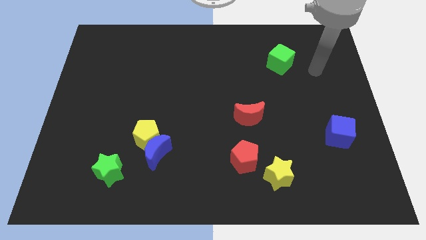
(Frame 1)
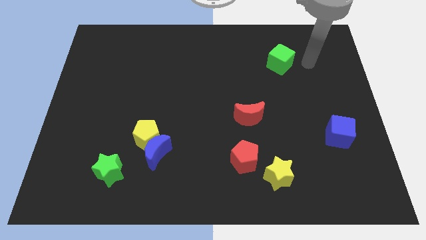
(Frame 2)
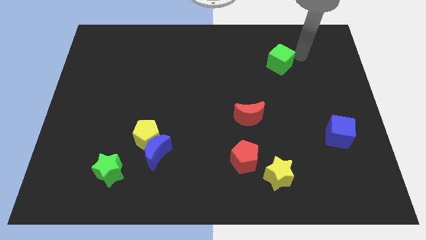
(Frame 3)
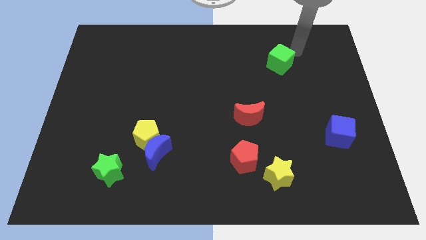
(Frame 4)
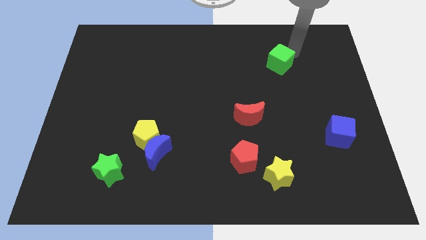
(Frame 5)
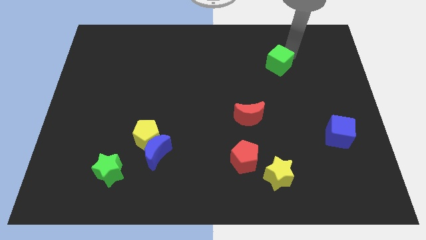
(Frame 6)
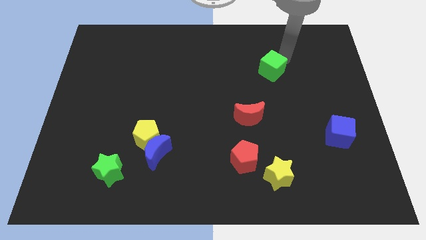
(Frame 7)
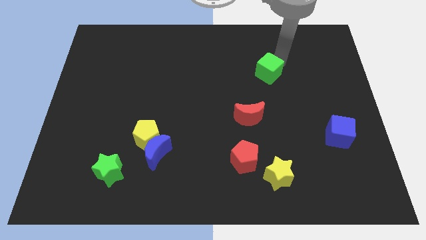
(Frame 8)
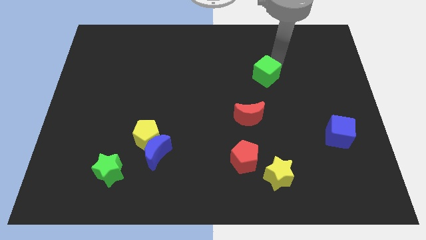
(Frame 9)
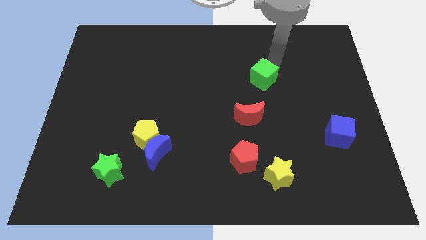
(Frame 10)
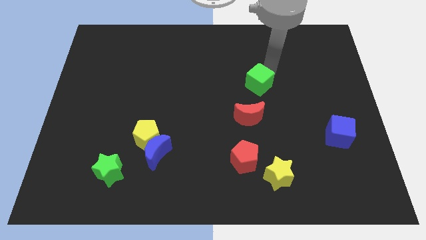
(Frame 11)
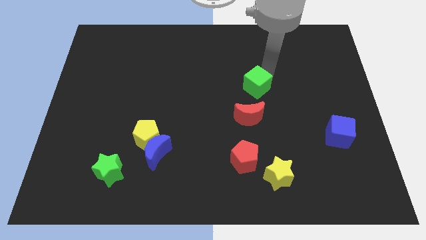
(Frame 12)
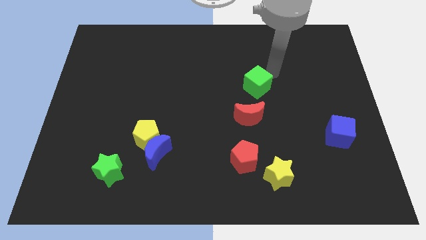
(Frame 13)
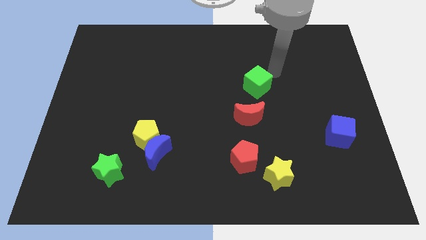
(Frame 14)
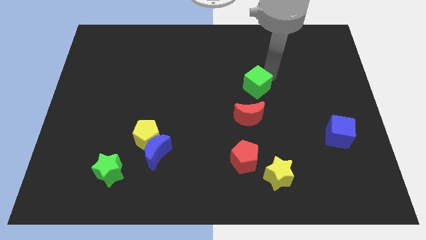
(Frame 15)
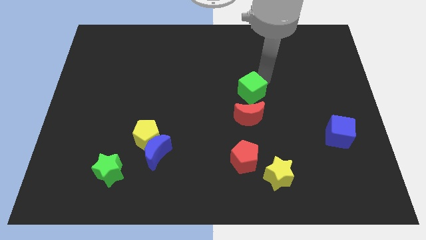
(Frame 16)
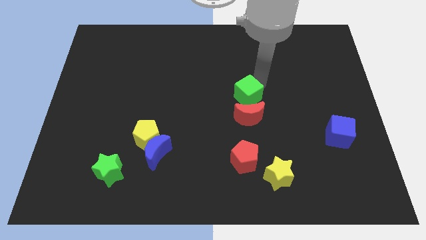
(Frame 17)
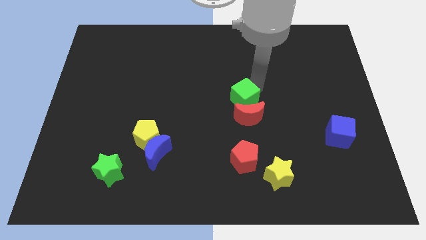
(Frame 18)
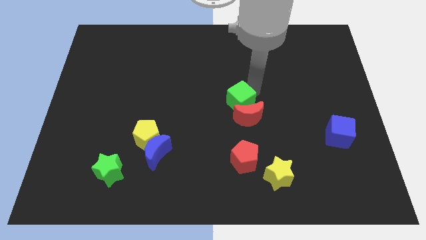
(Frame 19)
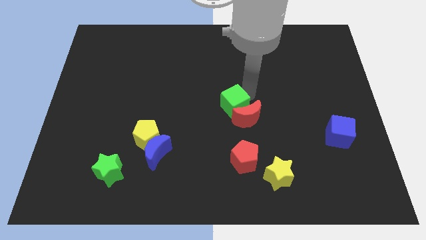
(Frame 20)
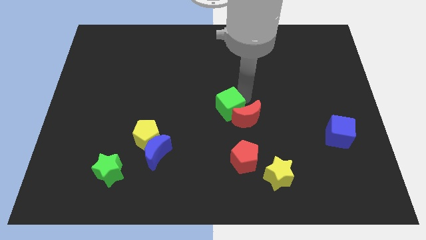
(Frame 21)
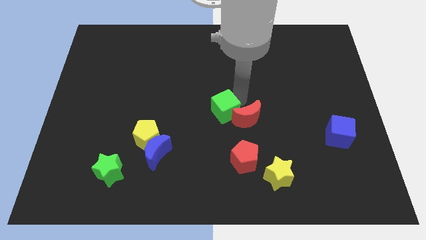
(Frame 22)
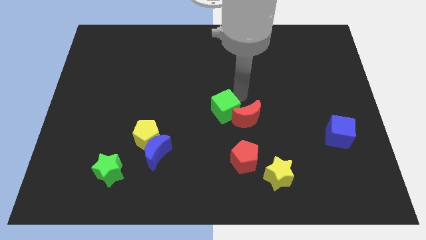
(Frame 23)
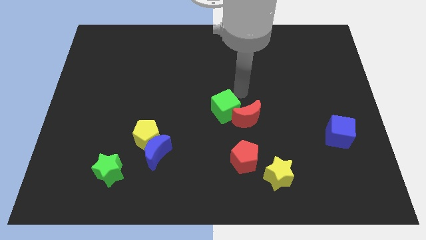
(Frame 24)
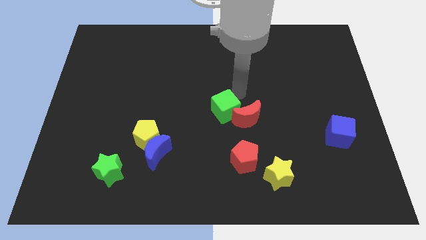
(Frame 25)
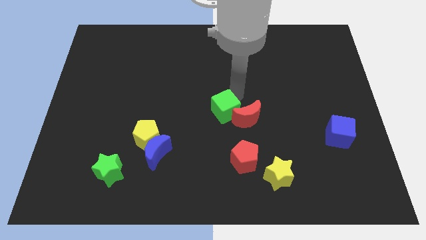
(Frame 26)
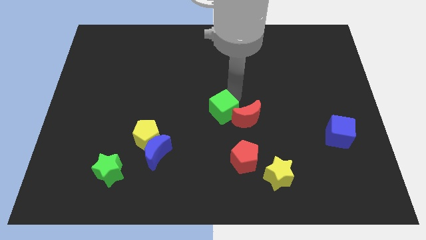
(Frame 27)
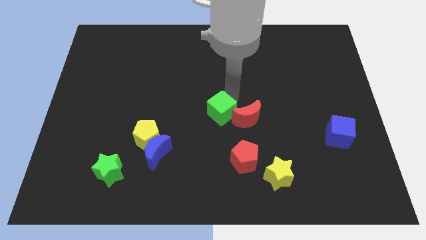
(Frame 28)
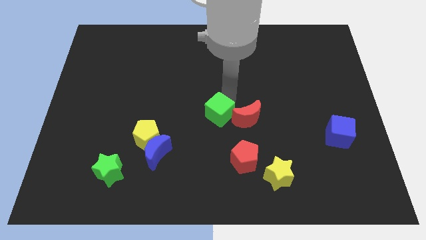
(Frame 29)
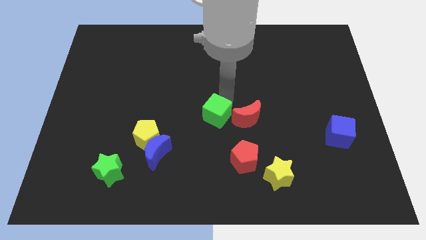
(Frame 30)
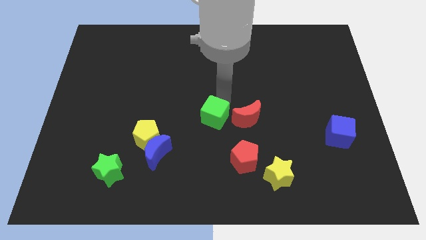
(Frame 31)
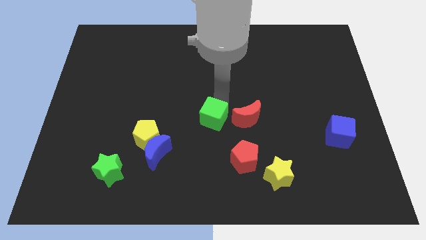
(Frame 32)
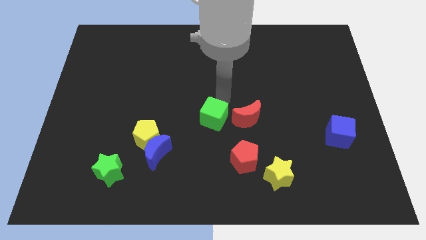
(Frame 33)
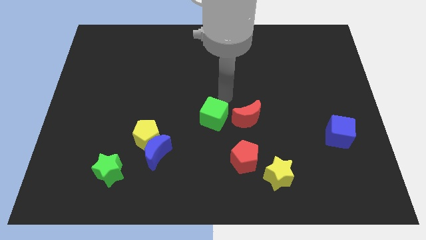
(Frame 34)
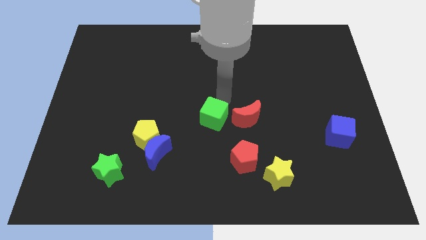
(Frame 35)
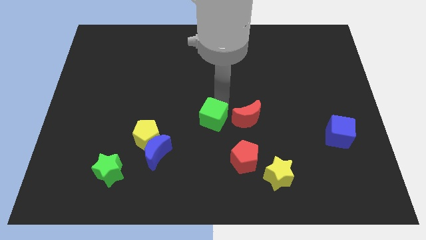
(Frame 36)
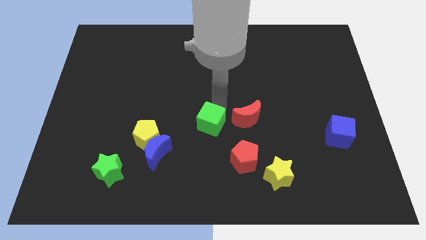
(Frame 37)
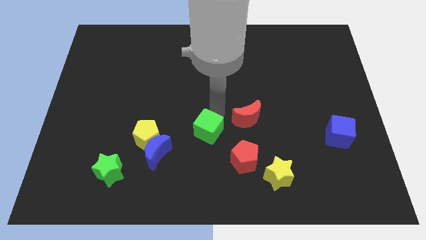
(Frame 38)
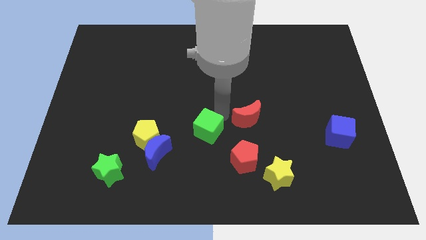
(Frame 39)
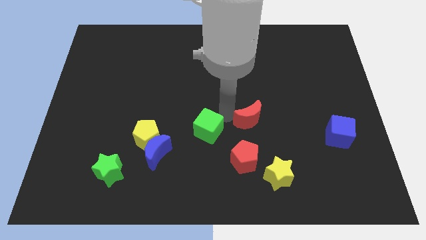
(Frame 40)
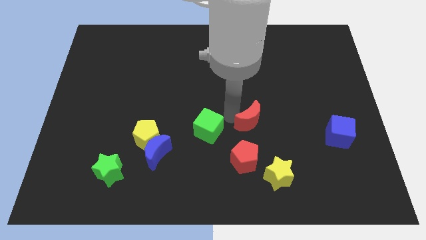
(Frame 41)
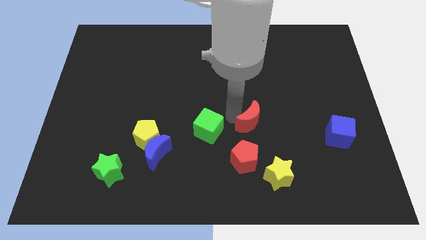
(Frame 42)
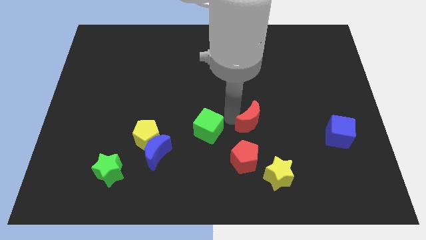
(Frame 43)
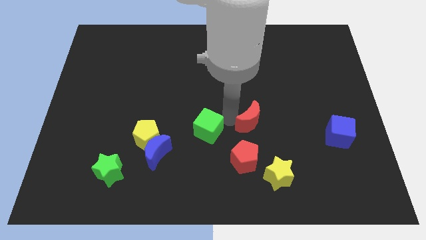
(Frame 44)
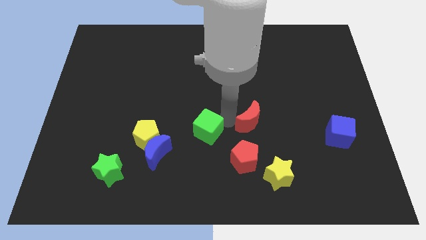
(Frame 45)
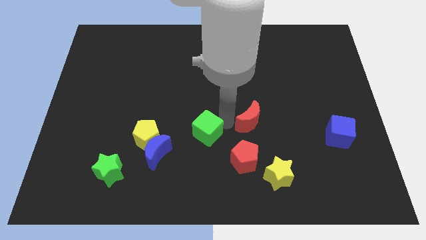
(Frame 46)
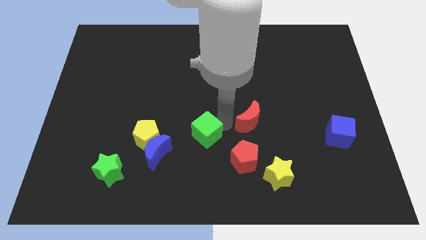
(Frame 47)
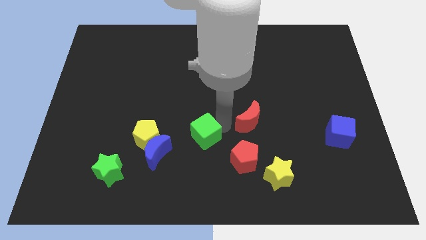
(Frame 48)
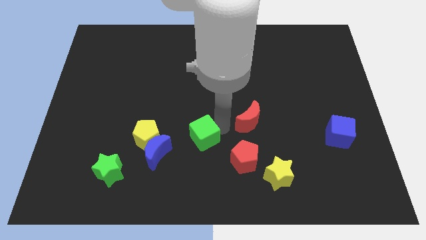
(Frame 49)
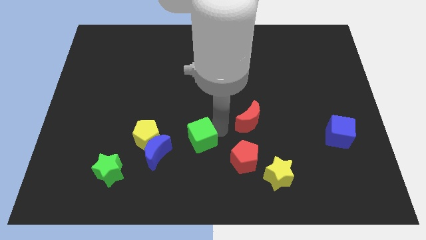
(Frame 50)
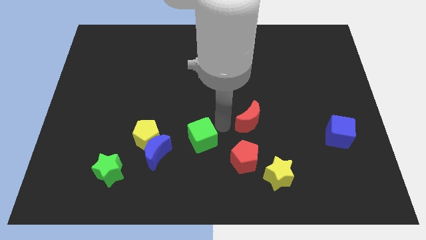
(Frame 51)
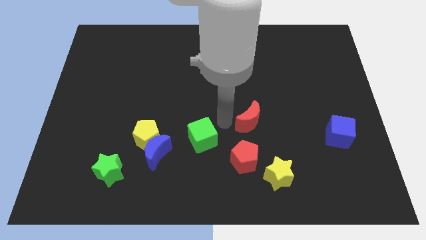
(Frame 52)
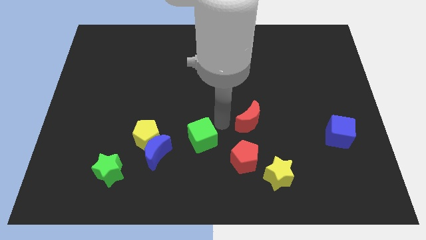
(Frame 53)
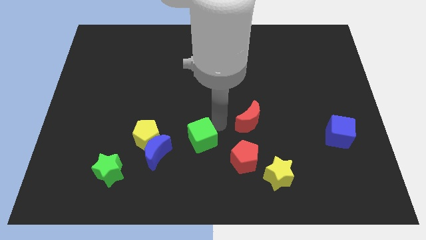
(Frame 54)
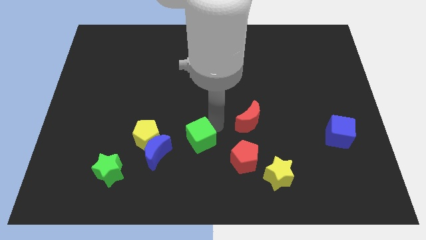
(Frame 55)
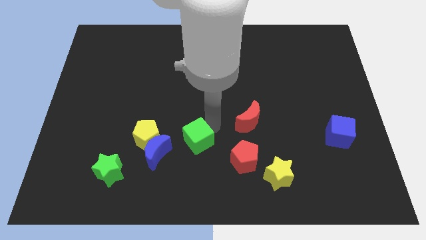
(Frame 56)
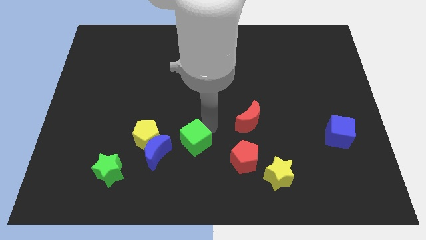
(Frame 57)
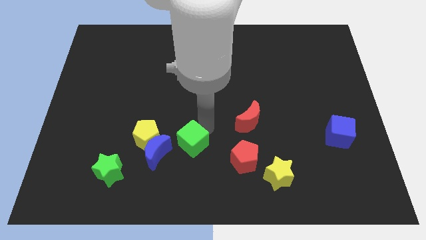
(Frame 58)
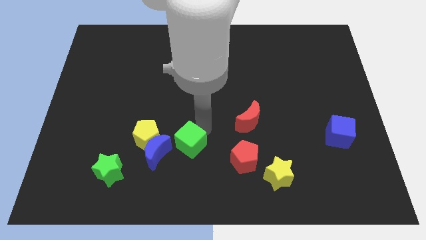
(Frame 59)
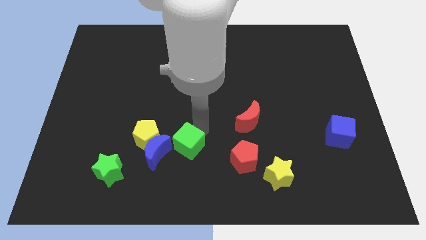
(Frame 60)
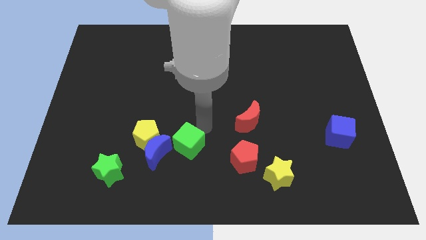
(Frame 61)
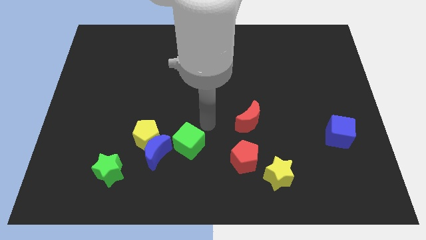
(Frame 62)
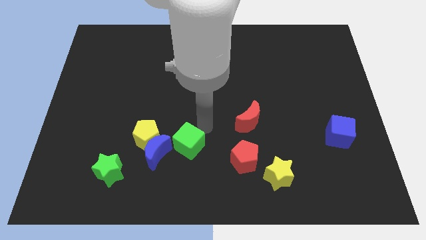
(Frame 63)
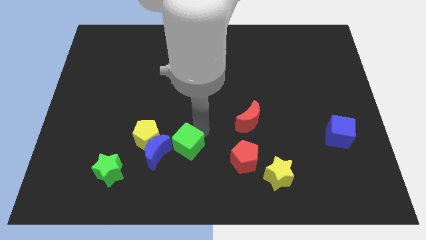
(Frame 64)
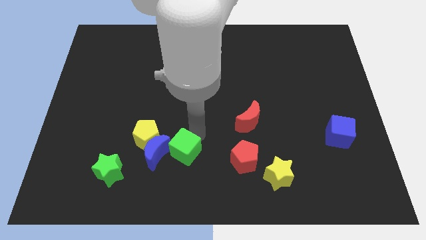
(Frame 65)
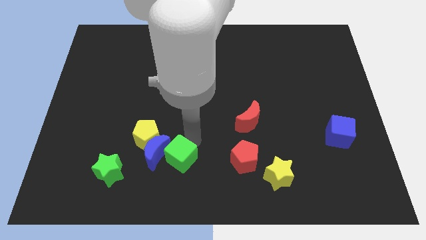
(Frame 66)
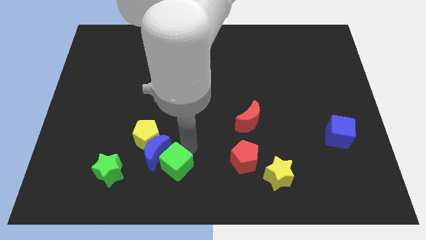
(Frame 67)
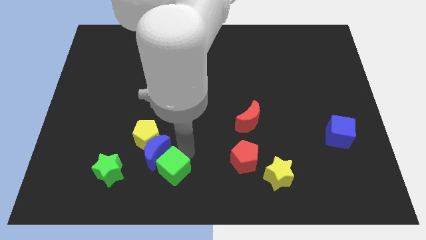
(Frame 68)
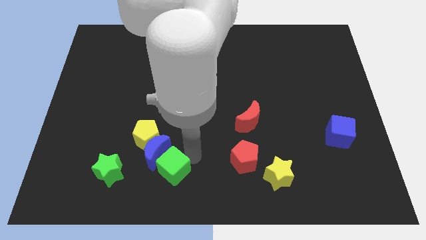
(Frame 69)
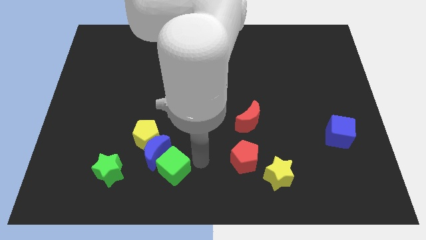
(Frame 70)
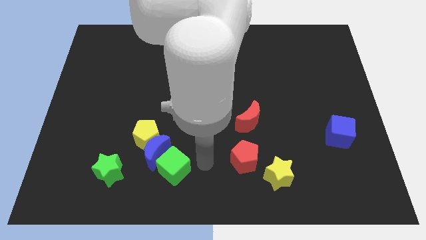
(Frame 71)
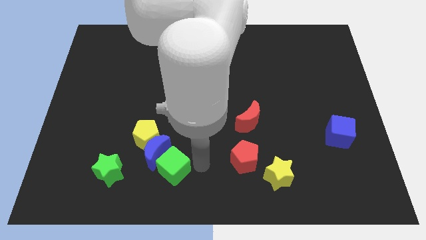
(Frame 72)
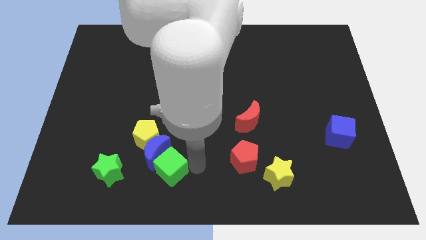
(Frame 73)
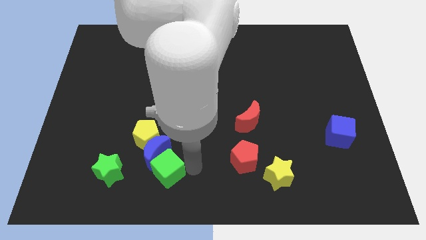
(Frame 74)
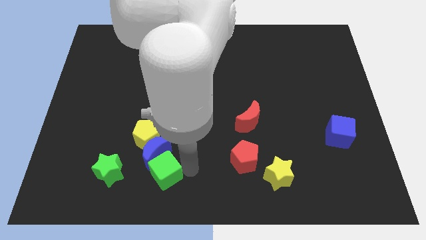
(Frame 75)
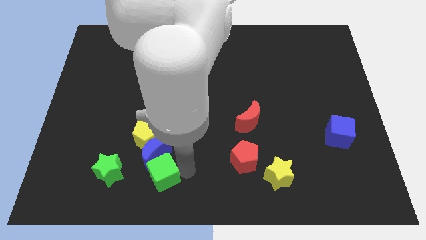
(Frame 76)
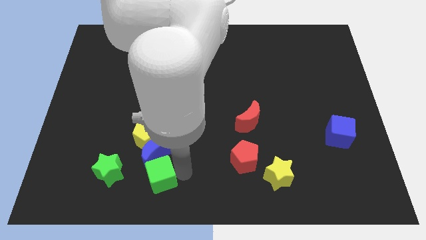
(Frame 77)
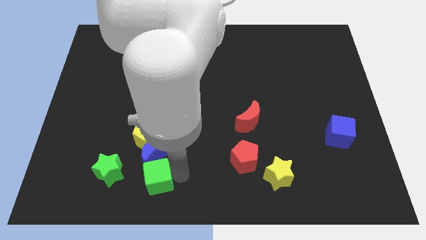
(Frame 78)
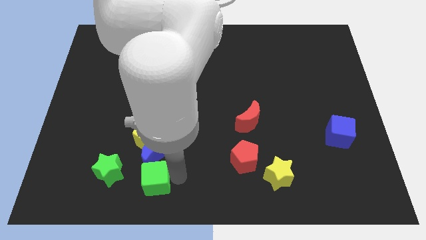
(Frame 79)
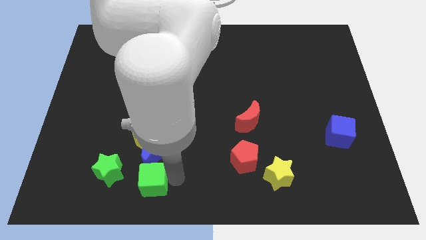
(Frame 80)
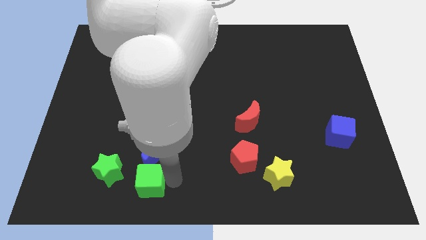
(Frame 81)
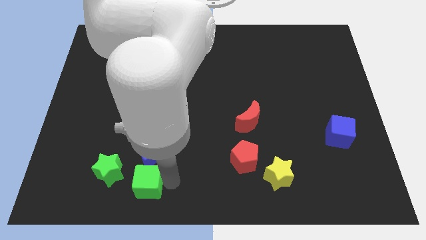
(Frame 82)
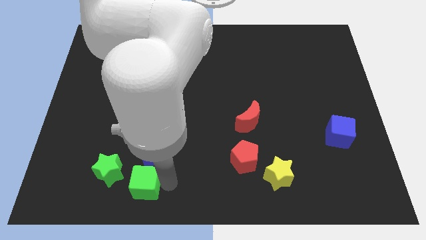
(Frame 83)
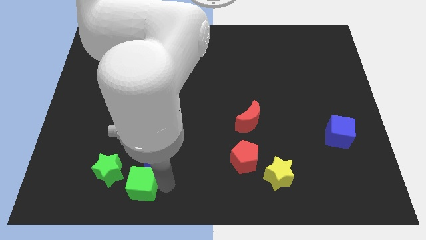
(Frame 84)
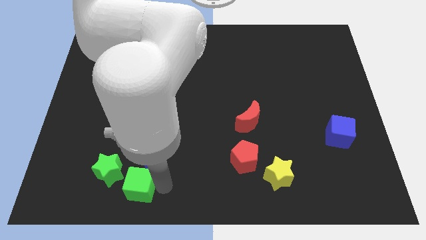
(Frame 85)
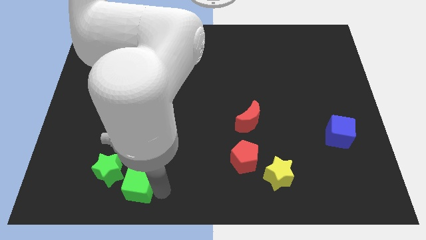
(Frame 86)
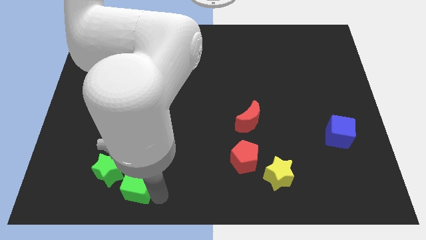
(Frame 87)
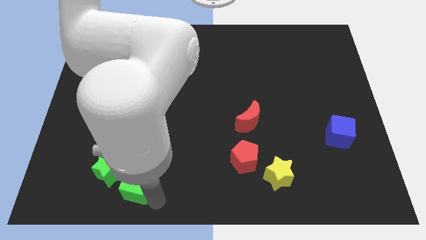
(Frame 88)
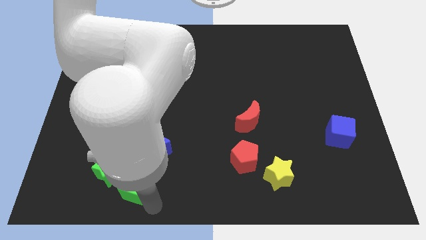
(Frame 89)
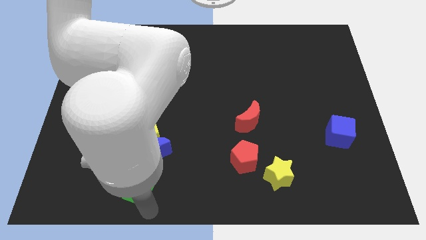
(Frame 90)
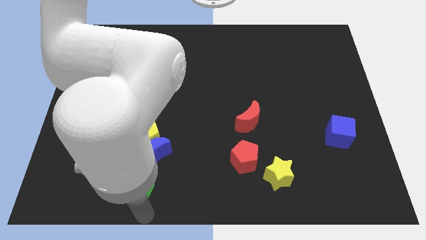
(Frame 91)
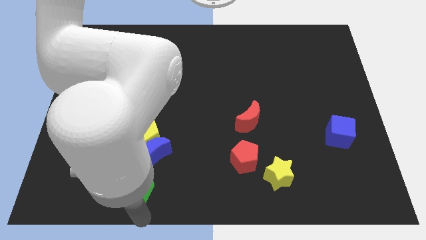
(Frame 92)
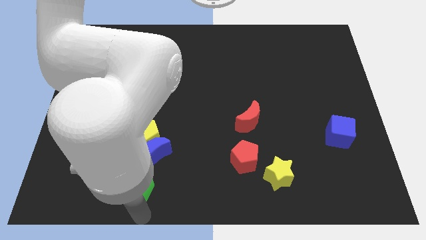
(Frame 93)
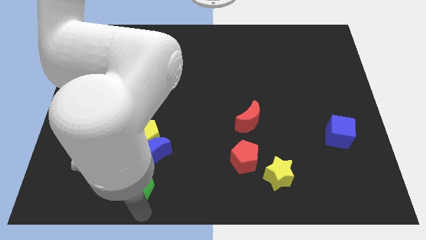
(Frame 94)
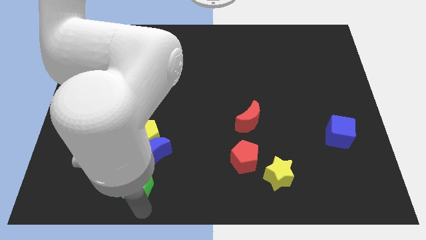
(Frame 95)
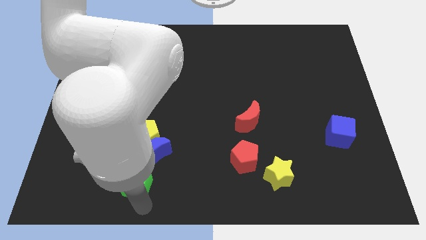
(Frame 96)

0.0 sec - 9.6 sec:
slide the green cube towards the green star
